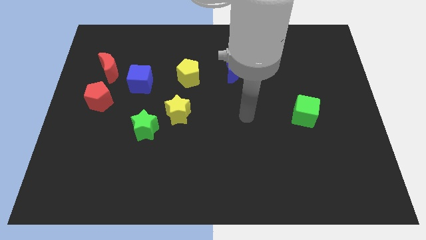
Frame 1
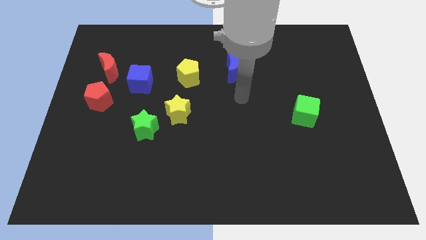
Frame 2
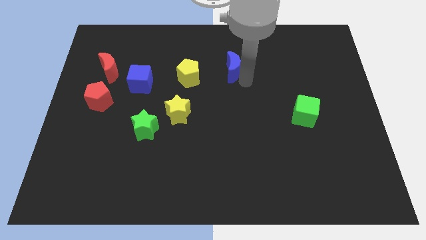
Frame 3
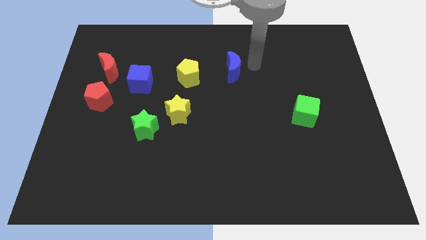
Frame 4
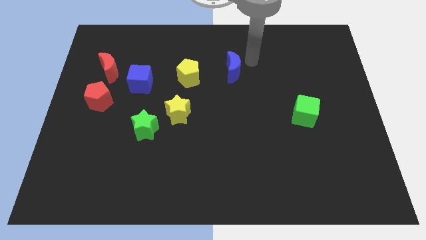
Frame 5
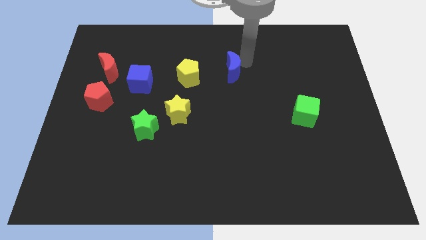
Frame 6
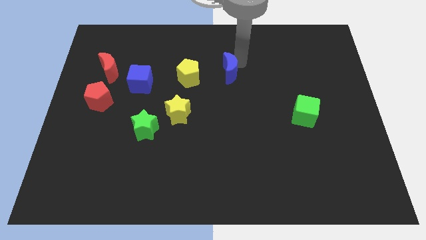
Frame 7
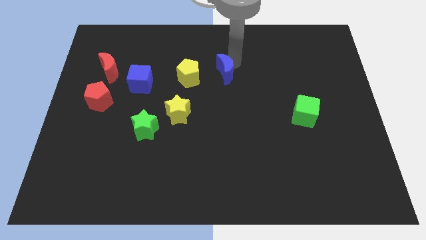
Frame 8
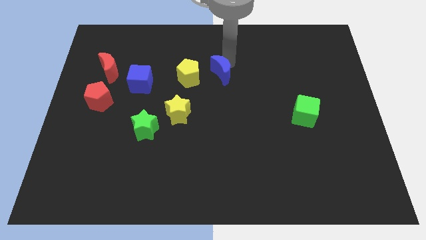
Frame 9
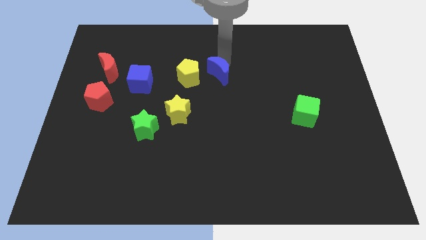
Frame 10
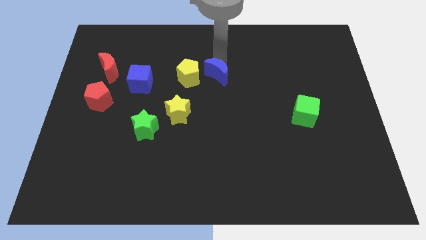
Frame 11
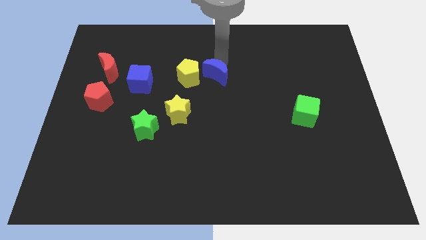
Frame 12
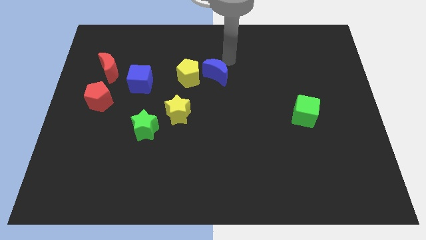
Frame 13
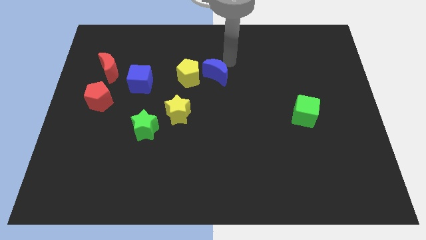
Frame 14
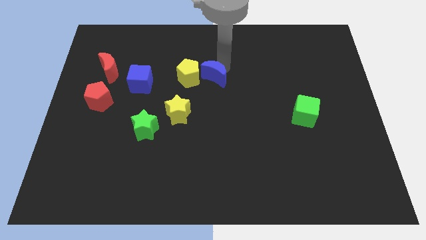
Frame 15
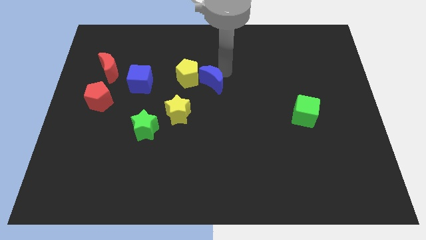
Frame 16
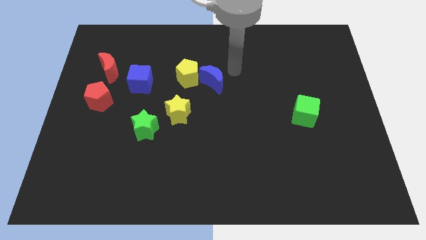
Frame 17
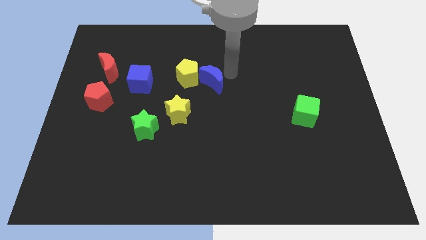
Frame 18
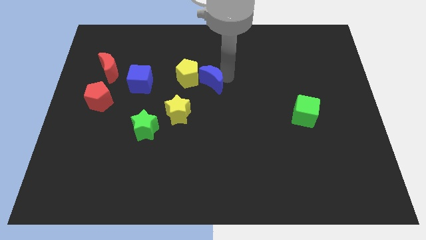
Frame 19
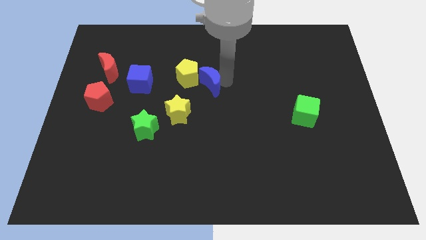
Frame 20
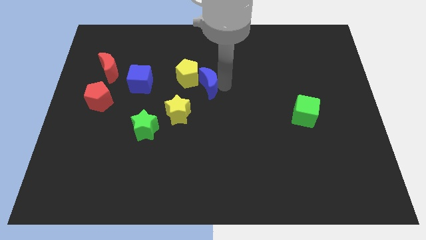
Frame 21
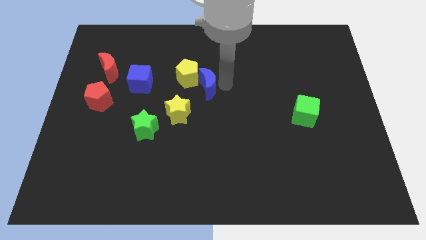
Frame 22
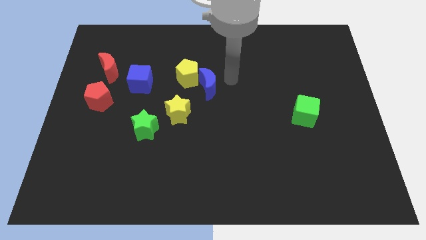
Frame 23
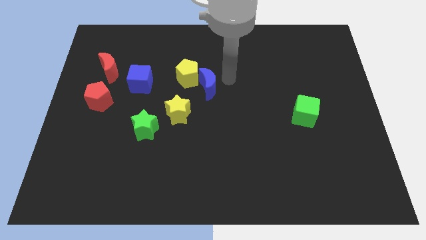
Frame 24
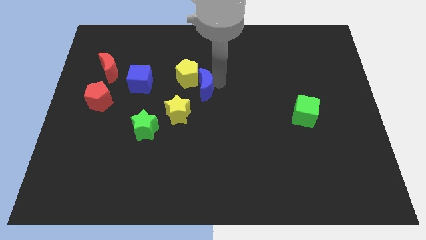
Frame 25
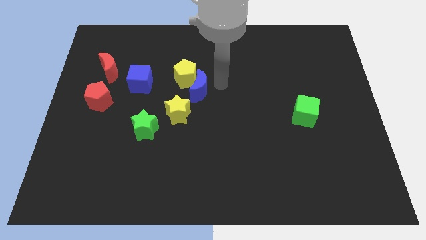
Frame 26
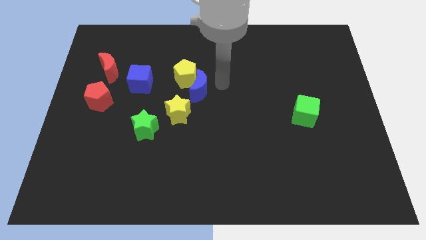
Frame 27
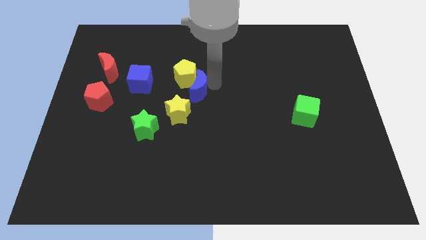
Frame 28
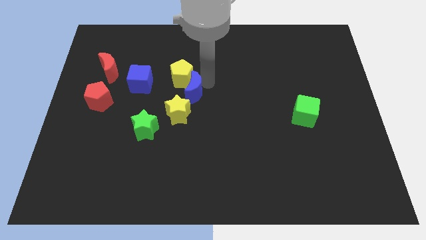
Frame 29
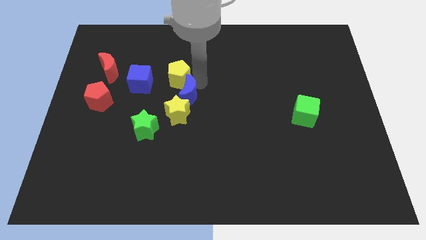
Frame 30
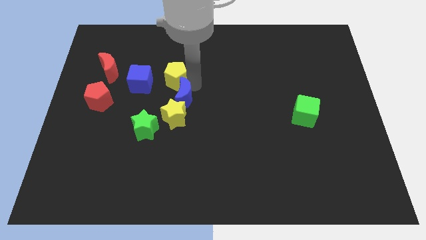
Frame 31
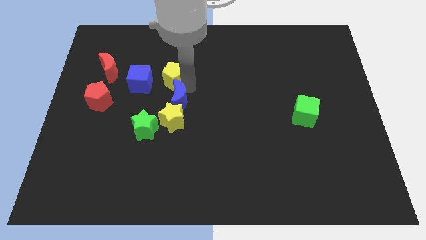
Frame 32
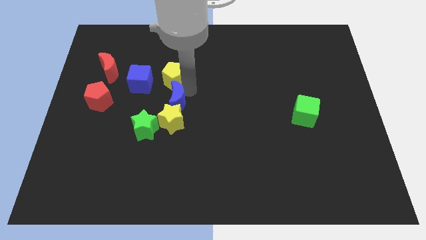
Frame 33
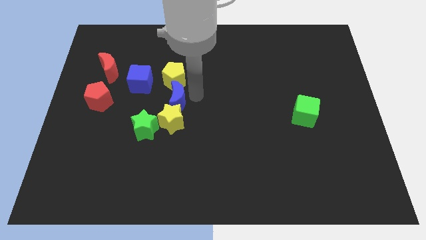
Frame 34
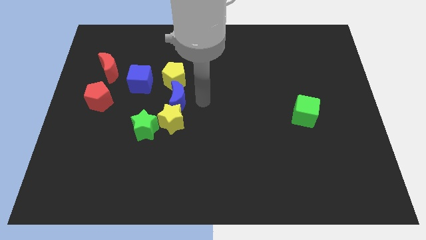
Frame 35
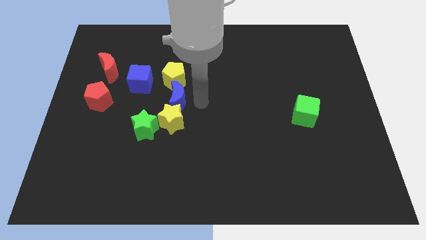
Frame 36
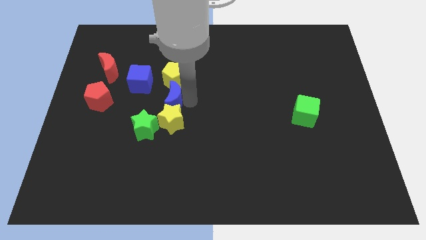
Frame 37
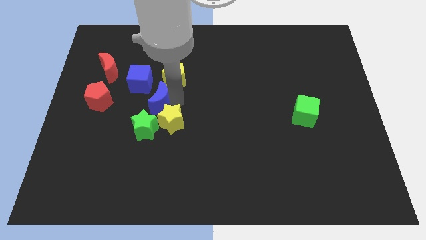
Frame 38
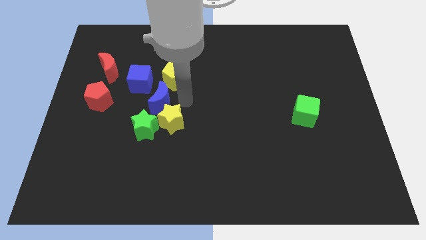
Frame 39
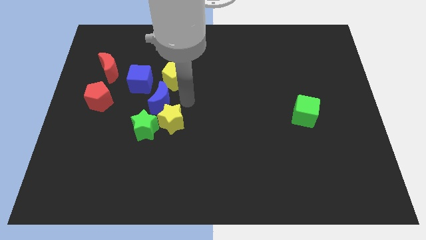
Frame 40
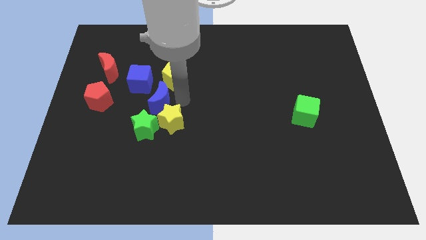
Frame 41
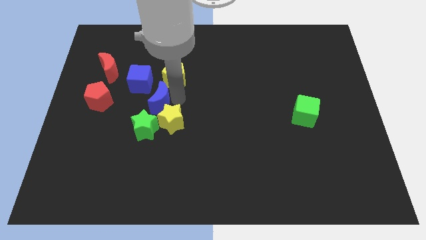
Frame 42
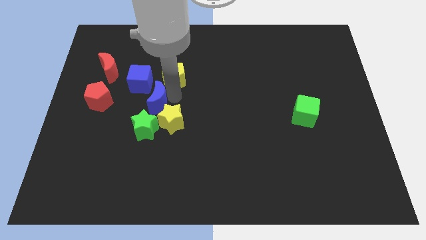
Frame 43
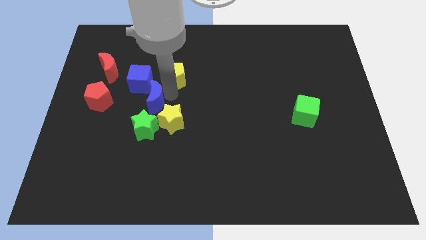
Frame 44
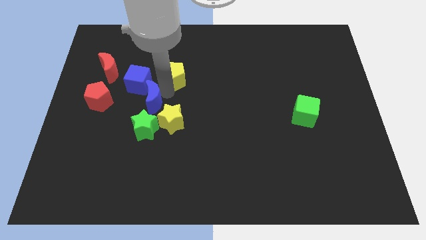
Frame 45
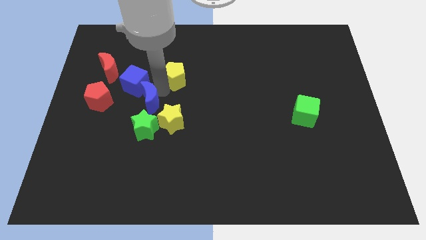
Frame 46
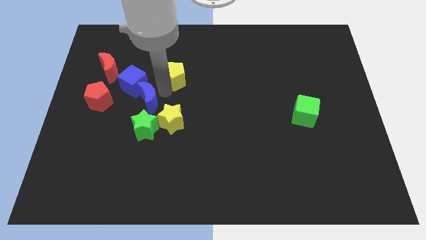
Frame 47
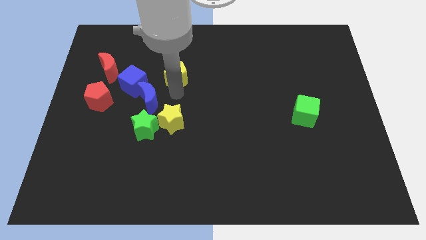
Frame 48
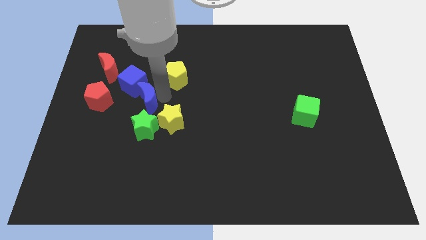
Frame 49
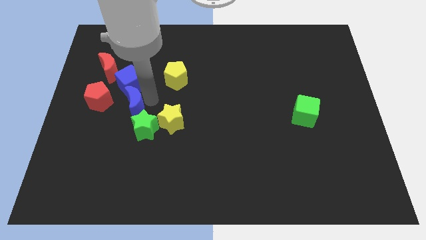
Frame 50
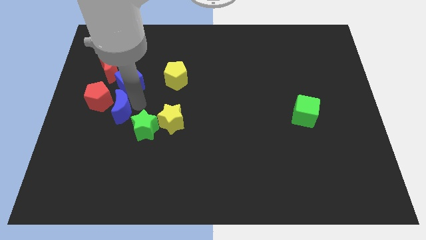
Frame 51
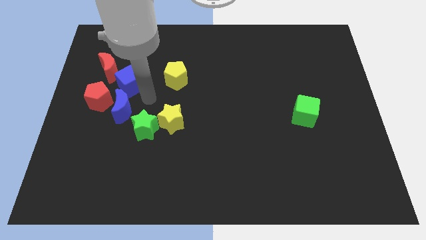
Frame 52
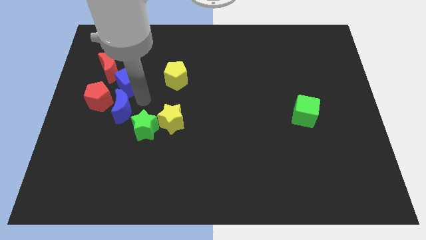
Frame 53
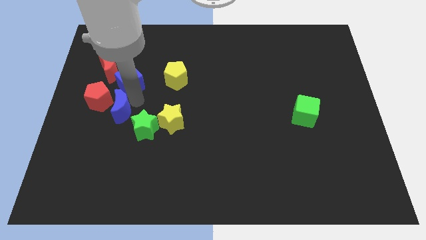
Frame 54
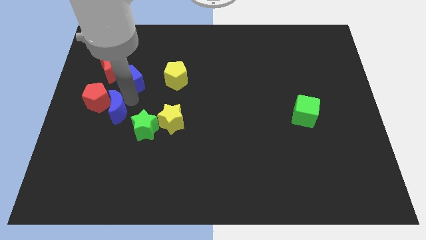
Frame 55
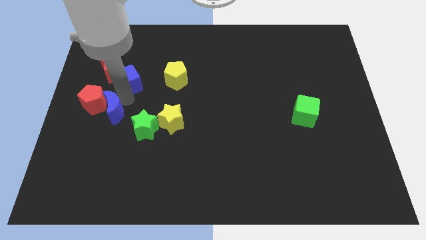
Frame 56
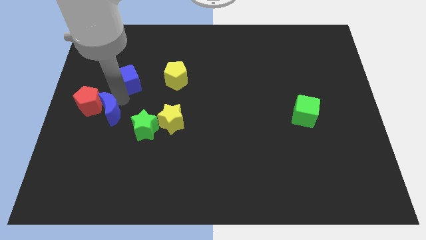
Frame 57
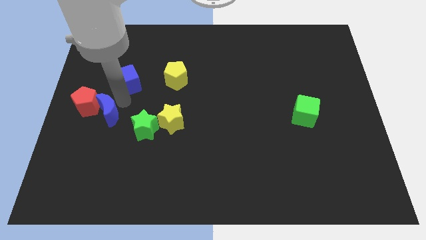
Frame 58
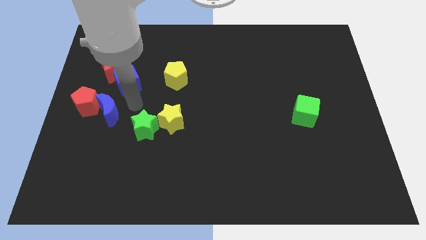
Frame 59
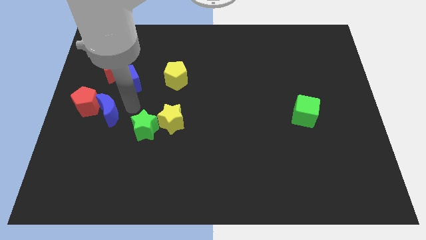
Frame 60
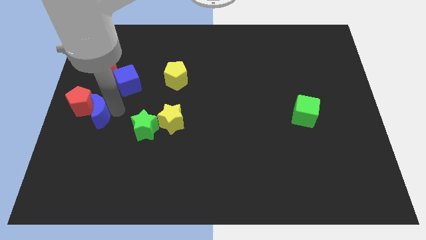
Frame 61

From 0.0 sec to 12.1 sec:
move the blue moon to the center left

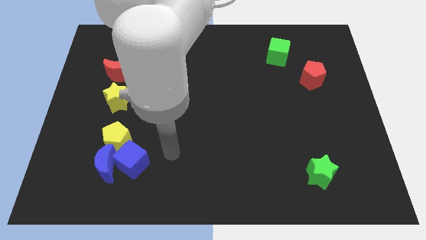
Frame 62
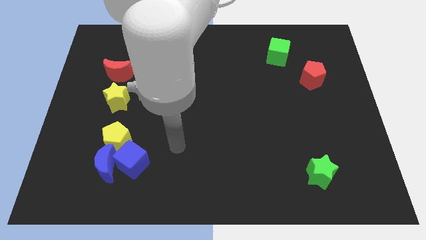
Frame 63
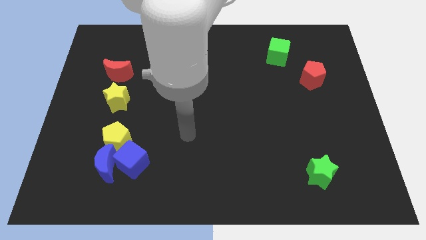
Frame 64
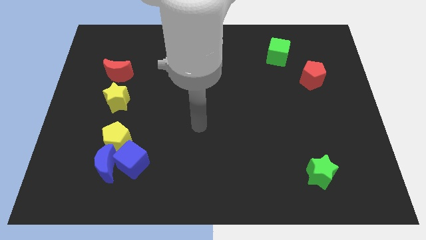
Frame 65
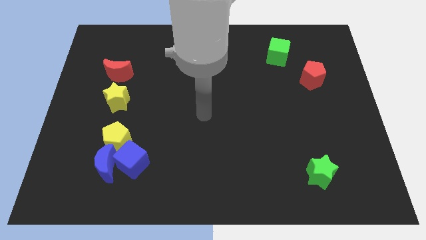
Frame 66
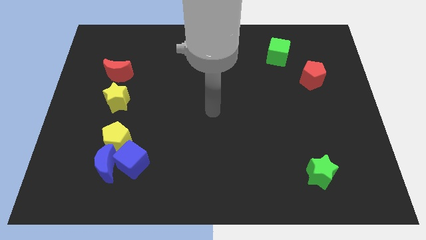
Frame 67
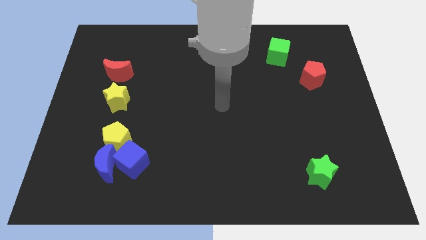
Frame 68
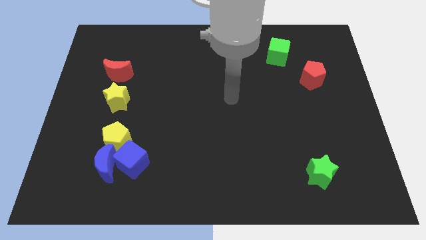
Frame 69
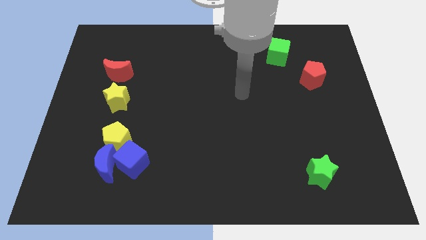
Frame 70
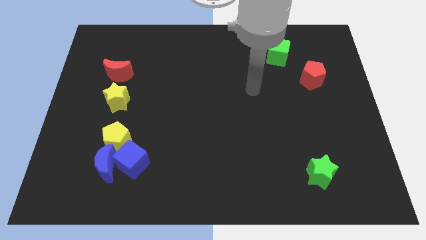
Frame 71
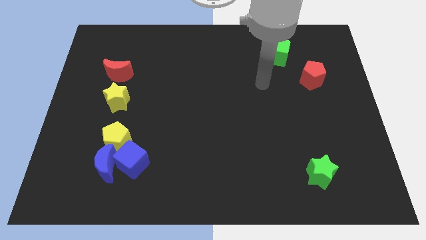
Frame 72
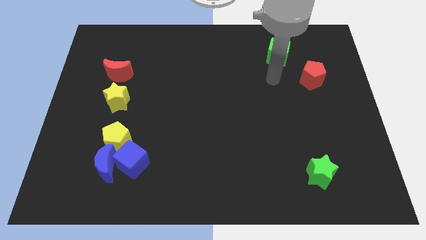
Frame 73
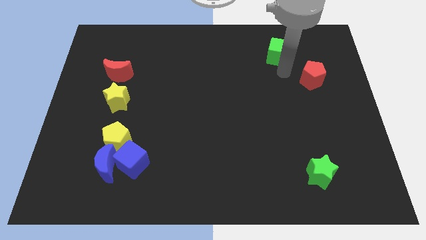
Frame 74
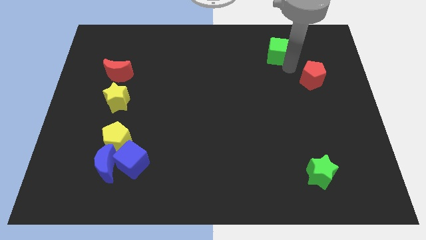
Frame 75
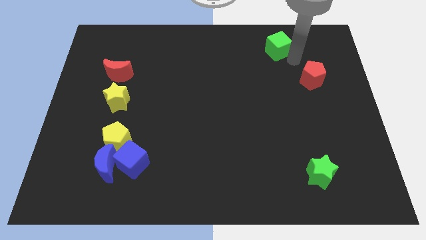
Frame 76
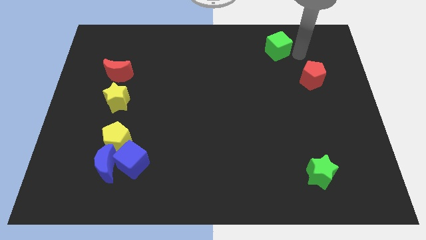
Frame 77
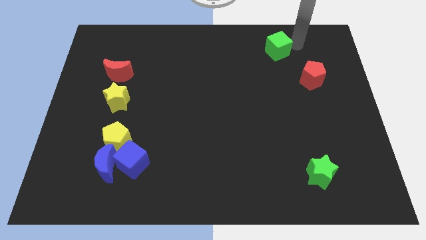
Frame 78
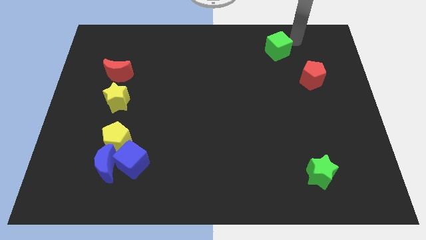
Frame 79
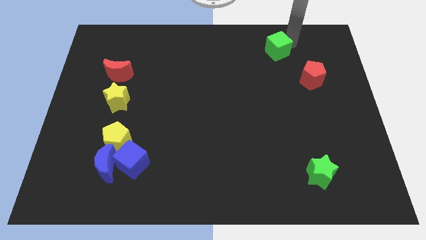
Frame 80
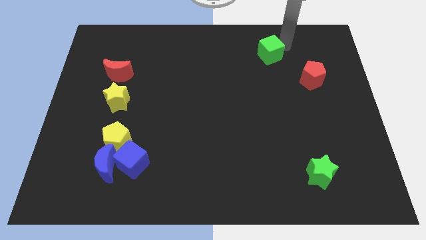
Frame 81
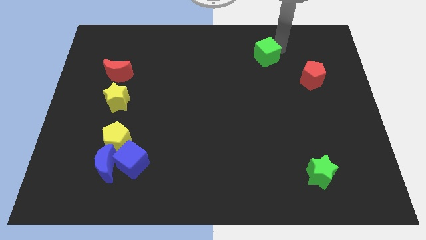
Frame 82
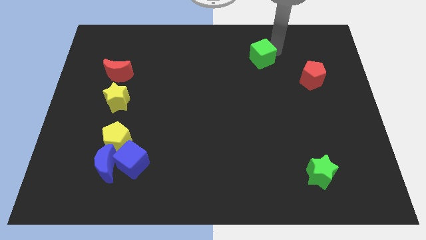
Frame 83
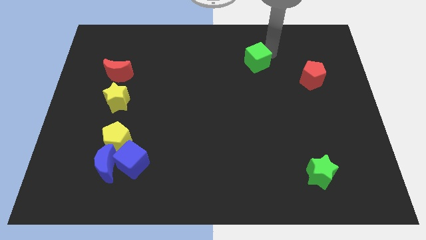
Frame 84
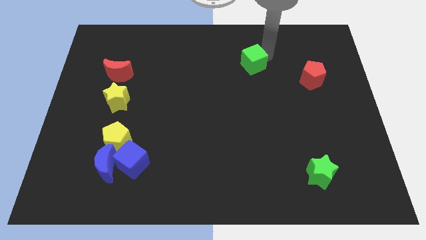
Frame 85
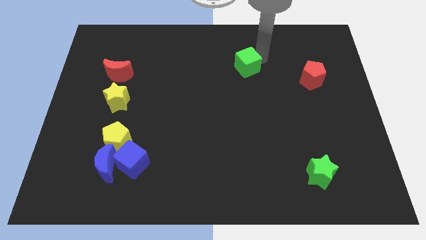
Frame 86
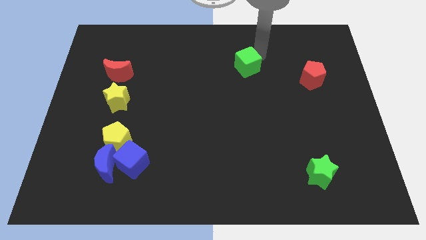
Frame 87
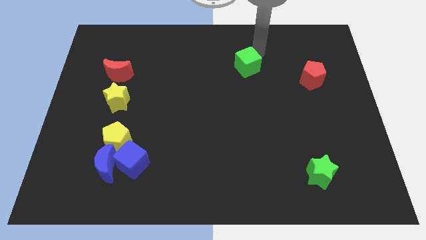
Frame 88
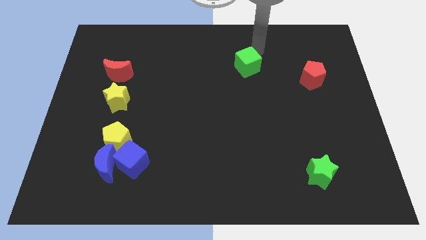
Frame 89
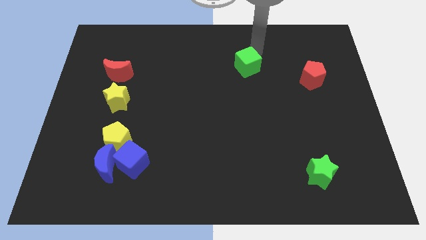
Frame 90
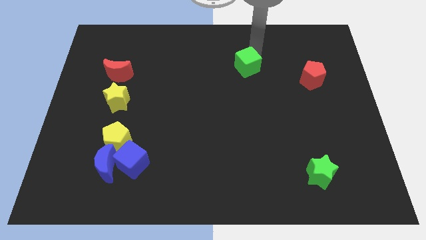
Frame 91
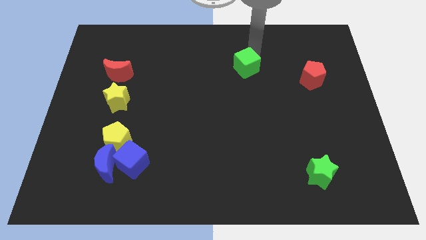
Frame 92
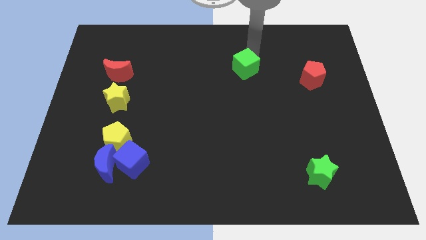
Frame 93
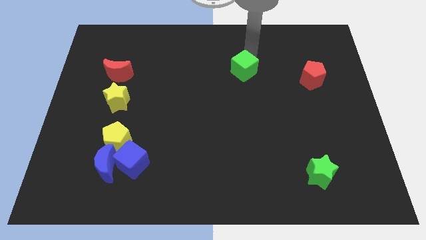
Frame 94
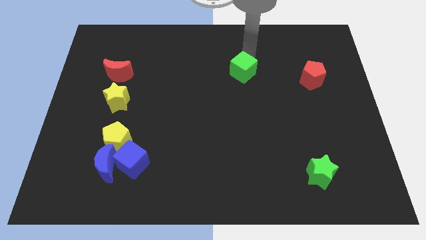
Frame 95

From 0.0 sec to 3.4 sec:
put the green cube to the middle
